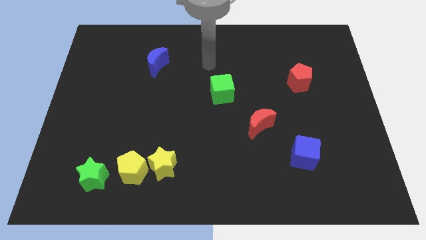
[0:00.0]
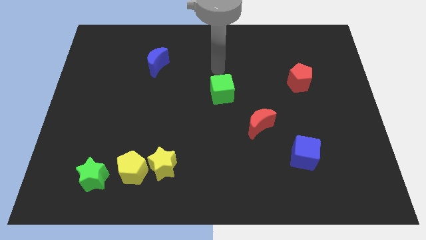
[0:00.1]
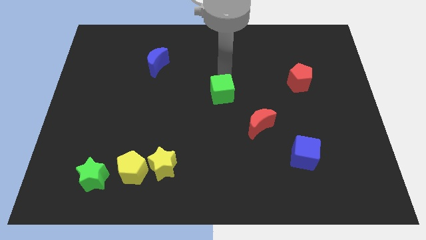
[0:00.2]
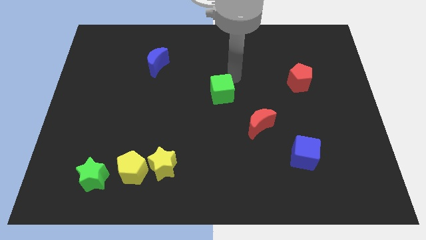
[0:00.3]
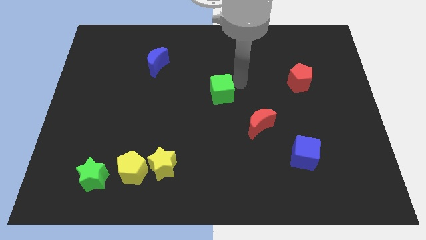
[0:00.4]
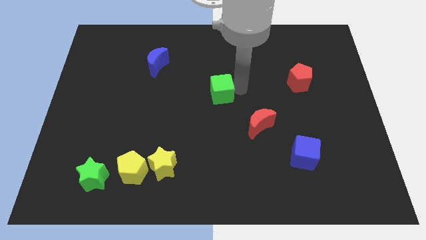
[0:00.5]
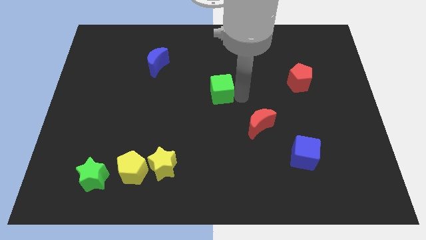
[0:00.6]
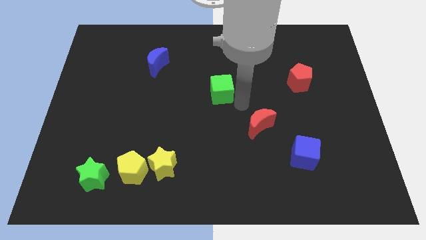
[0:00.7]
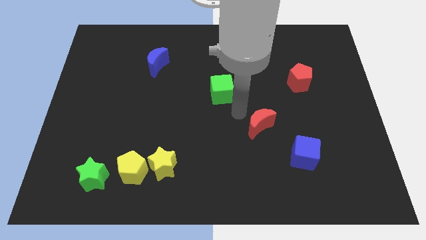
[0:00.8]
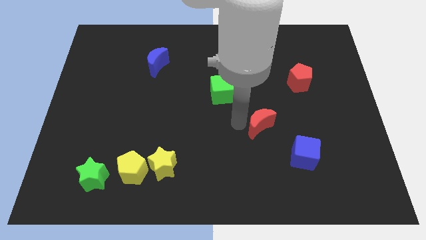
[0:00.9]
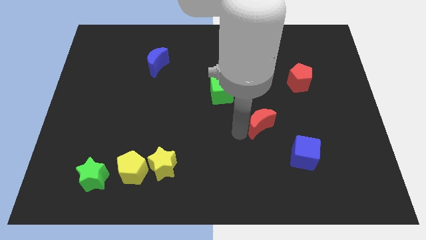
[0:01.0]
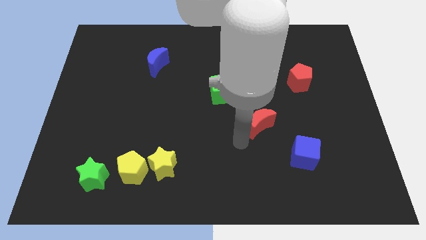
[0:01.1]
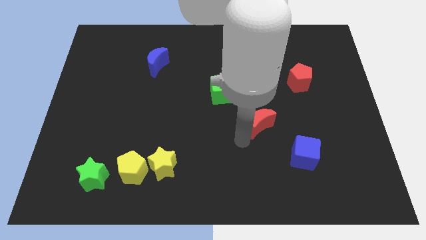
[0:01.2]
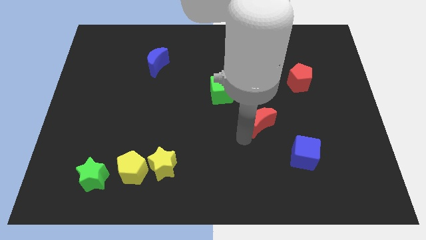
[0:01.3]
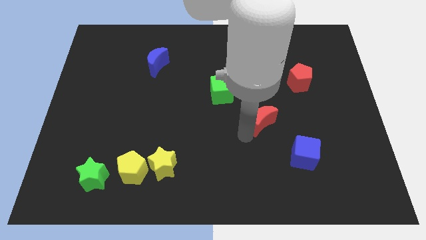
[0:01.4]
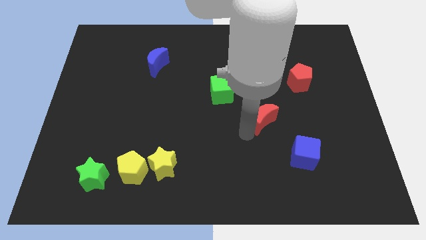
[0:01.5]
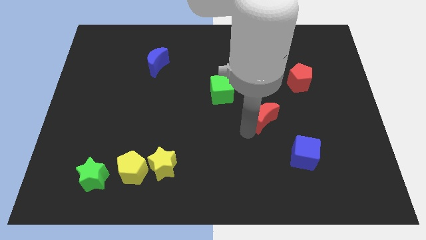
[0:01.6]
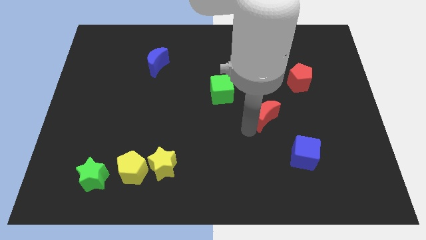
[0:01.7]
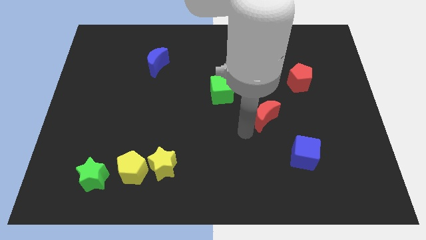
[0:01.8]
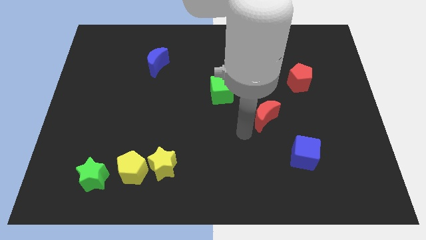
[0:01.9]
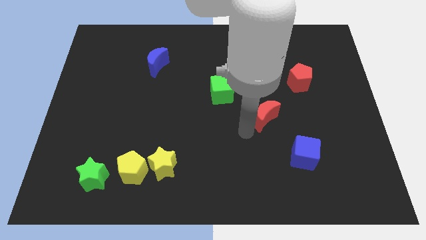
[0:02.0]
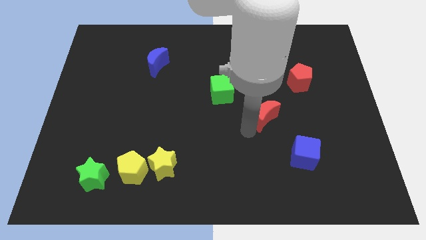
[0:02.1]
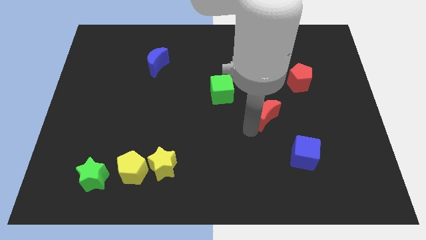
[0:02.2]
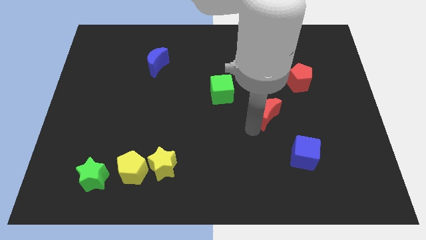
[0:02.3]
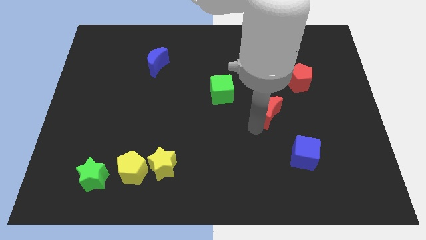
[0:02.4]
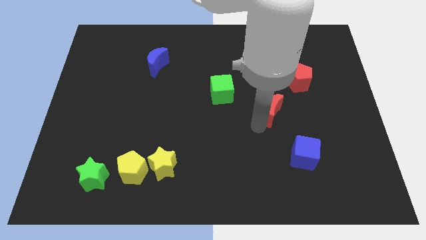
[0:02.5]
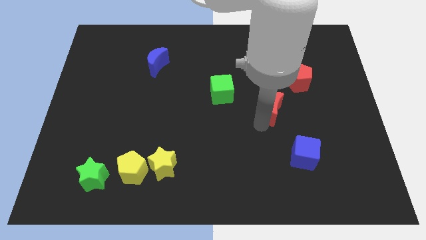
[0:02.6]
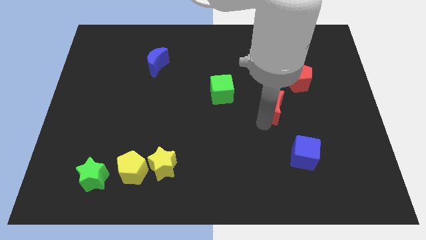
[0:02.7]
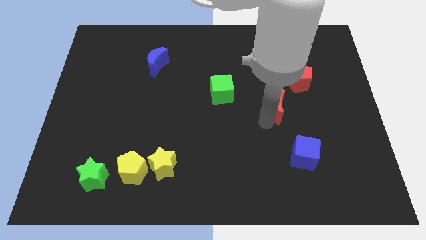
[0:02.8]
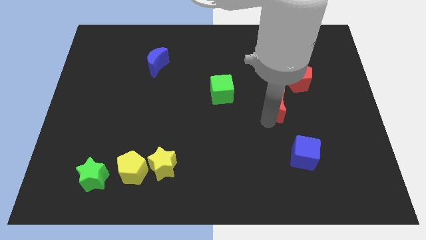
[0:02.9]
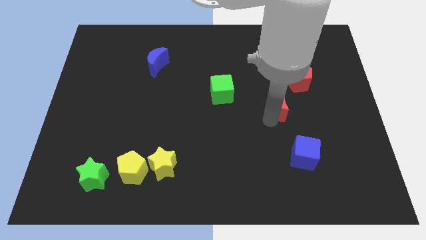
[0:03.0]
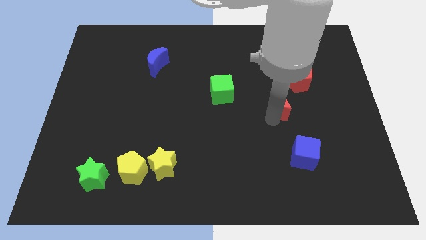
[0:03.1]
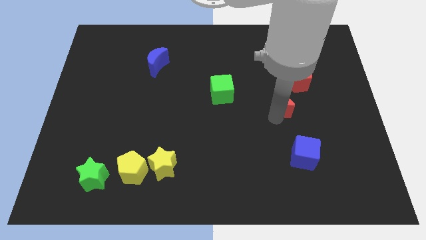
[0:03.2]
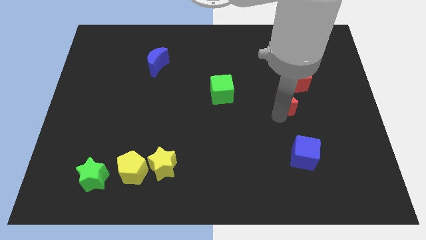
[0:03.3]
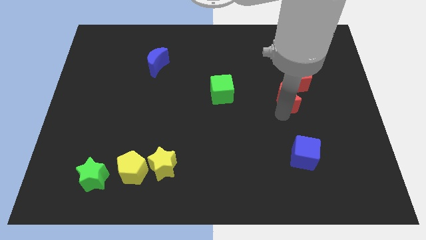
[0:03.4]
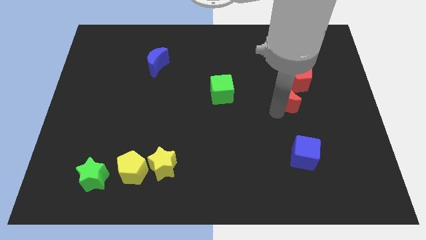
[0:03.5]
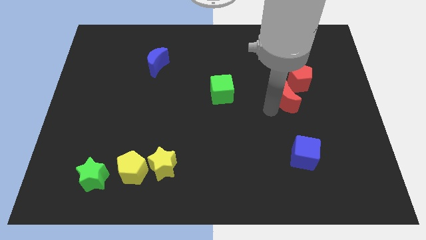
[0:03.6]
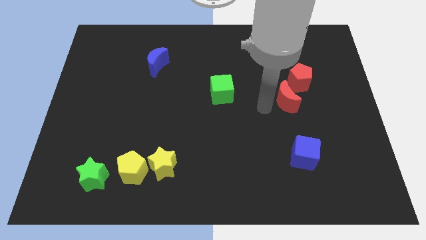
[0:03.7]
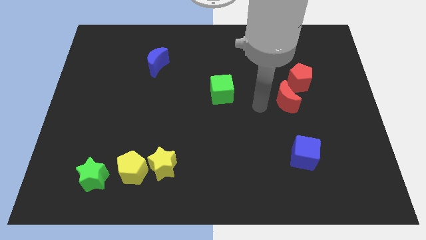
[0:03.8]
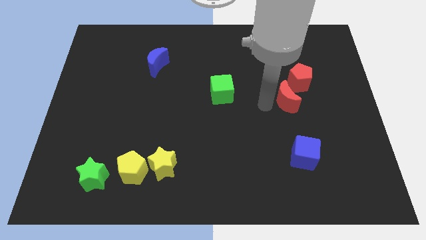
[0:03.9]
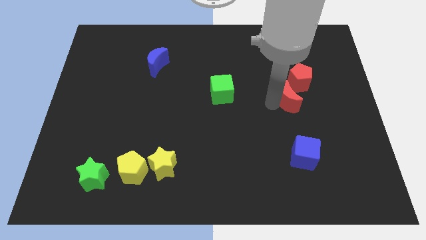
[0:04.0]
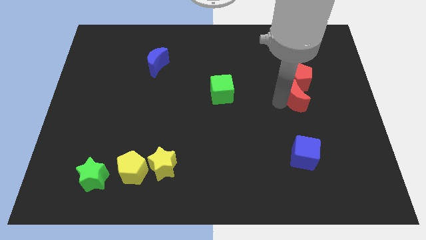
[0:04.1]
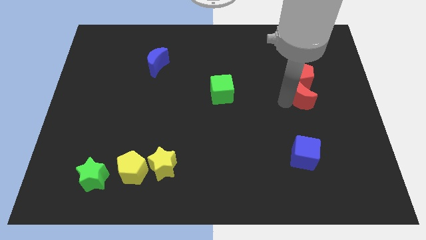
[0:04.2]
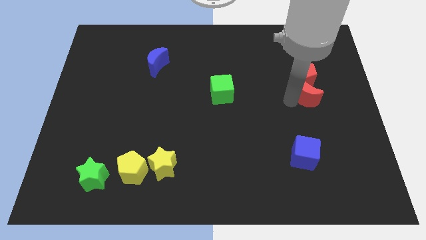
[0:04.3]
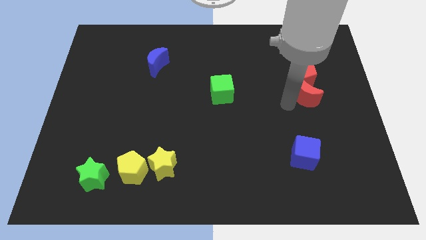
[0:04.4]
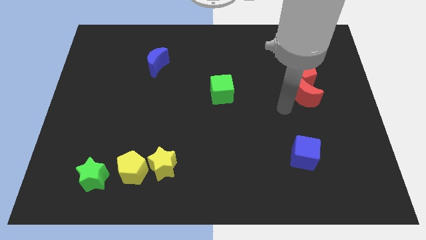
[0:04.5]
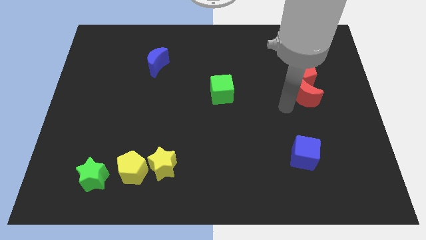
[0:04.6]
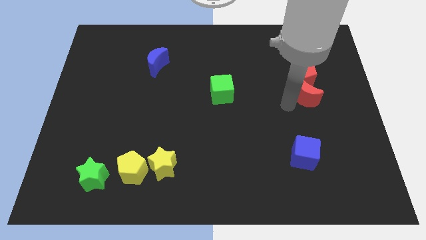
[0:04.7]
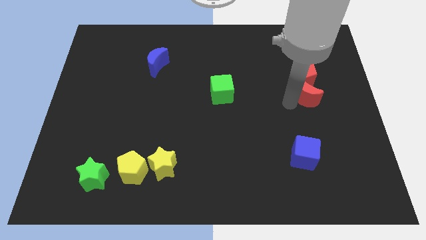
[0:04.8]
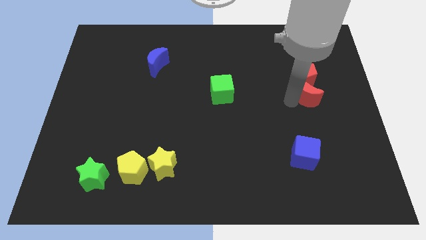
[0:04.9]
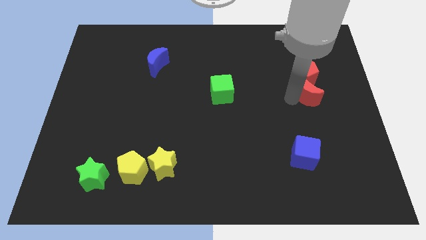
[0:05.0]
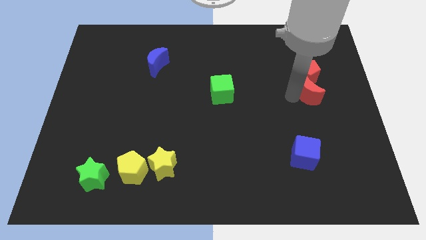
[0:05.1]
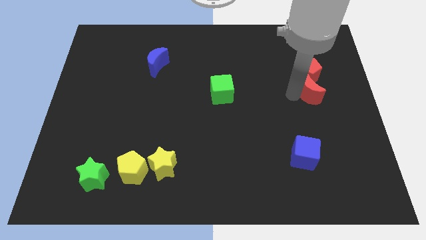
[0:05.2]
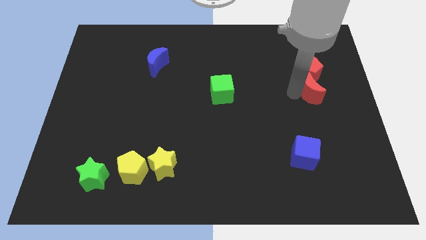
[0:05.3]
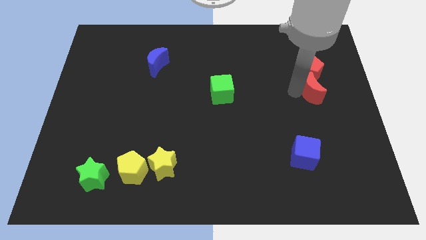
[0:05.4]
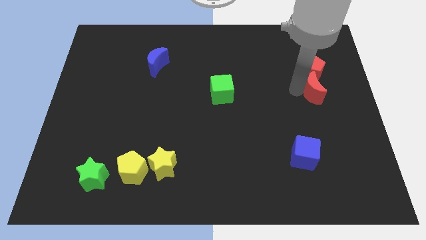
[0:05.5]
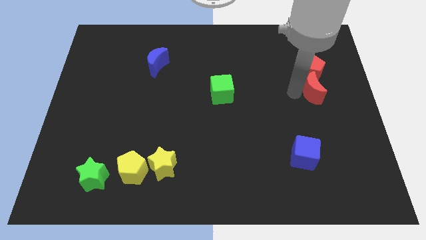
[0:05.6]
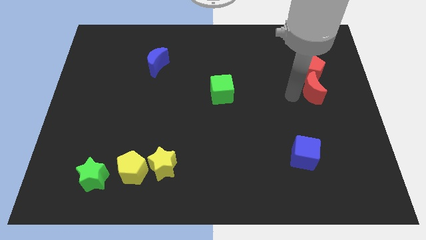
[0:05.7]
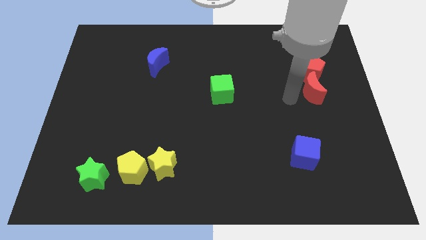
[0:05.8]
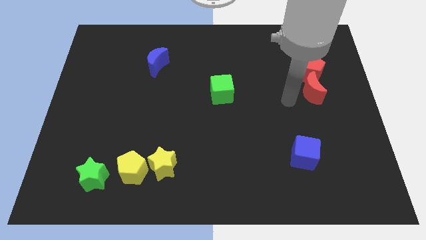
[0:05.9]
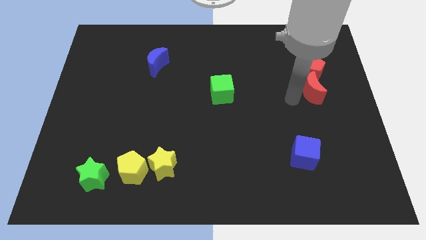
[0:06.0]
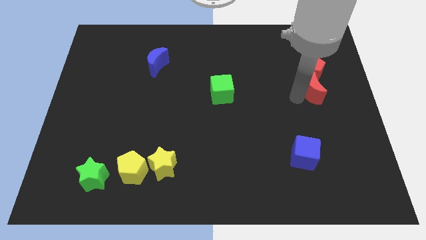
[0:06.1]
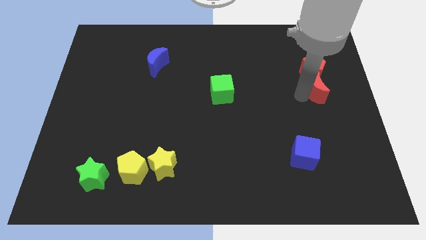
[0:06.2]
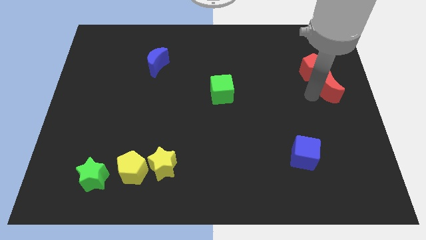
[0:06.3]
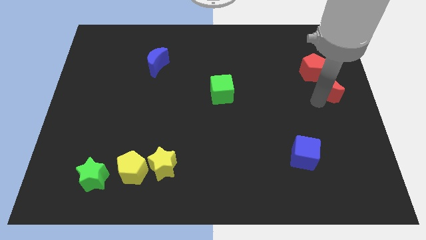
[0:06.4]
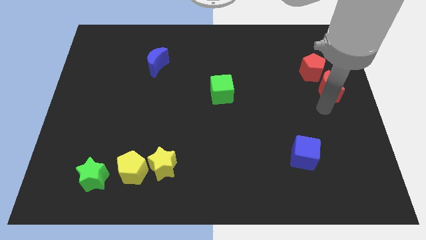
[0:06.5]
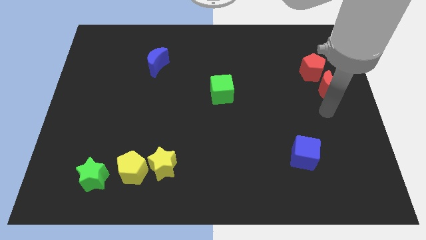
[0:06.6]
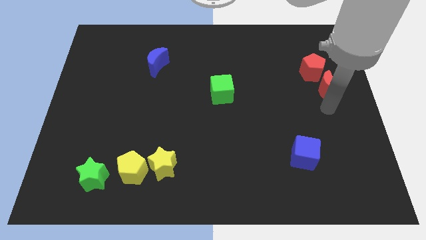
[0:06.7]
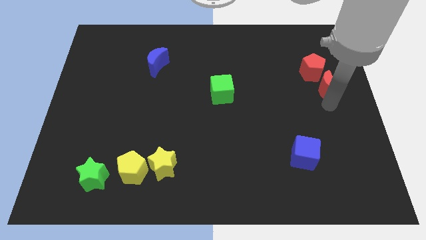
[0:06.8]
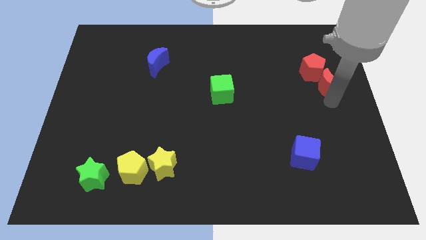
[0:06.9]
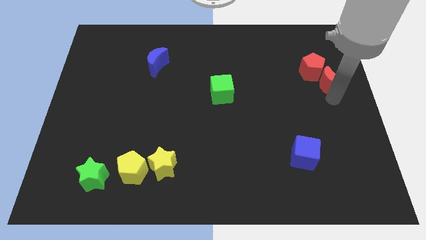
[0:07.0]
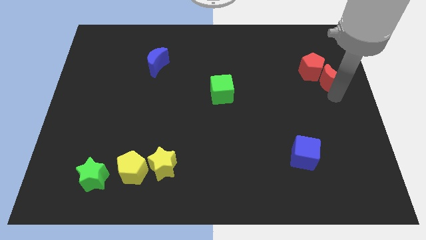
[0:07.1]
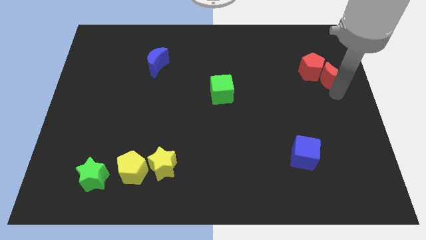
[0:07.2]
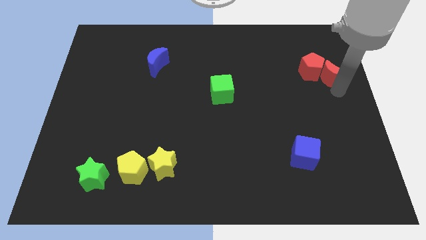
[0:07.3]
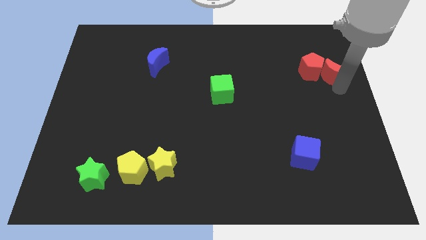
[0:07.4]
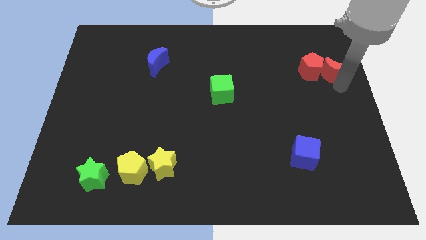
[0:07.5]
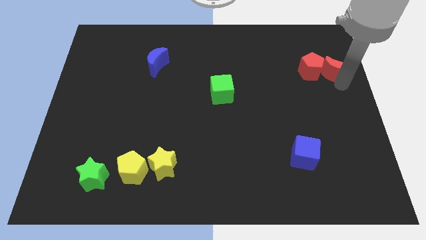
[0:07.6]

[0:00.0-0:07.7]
slide the red moon to the top right side of the red pentagon
